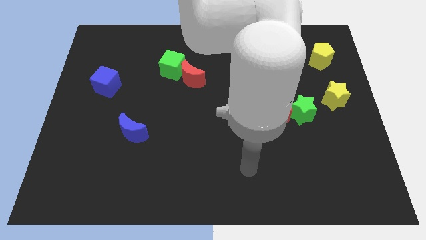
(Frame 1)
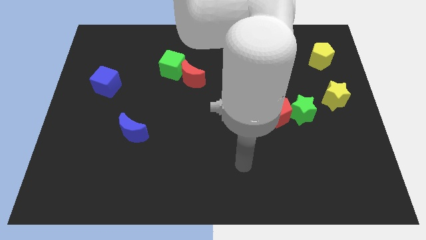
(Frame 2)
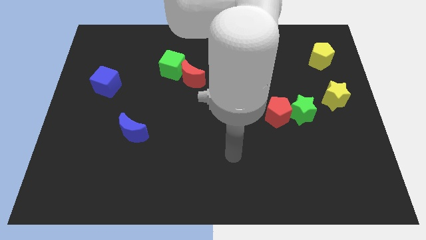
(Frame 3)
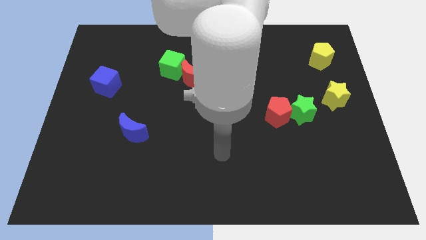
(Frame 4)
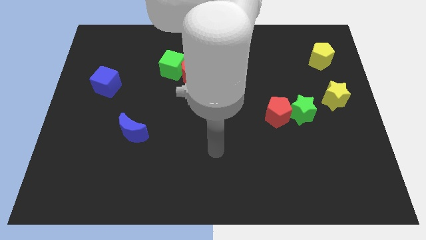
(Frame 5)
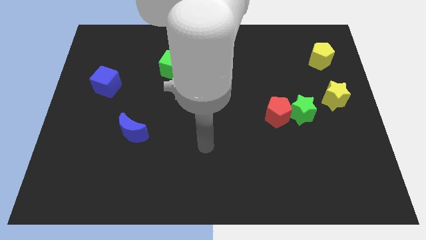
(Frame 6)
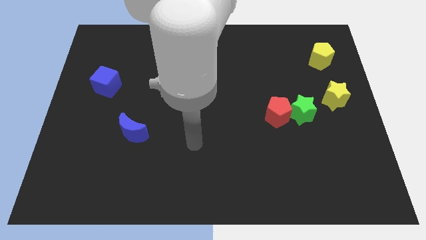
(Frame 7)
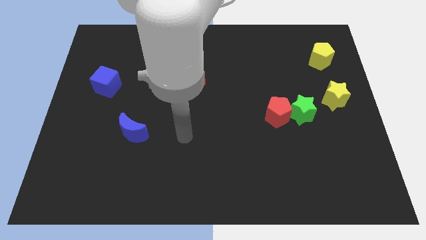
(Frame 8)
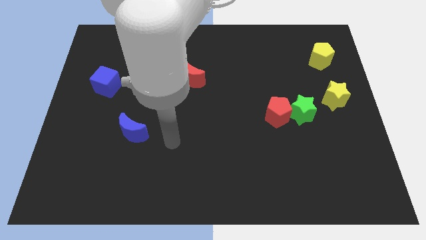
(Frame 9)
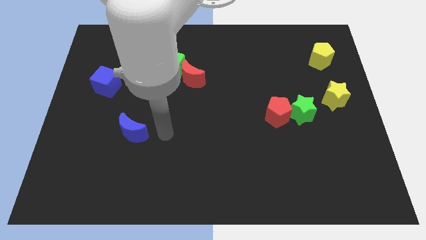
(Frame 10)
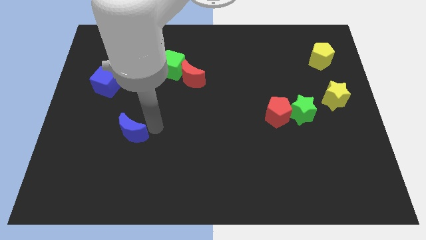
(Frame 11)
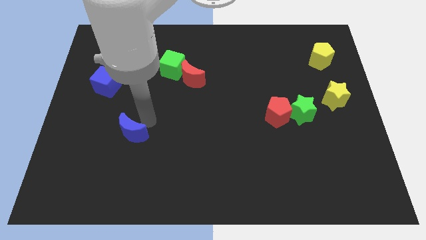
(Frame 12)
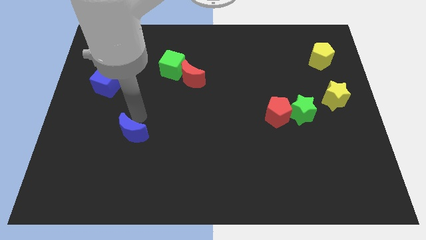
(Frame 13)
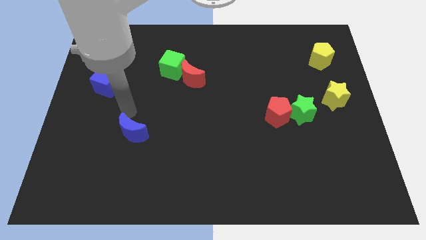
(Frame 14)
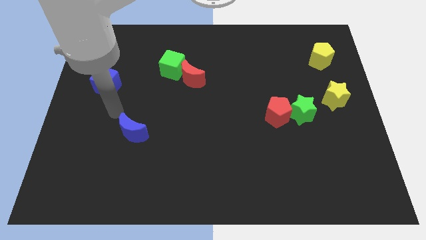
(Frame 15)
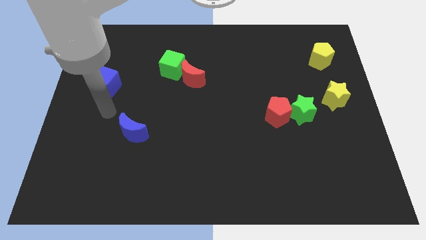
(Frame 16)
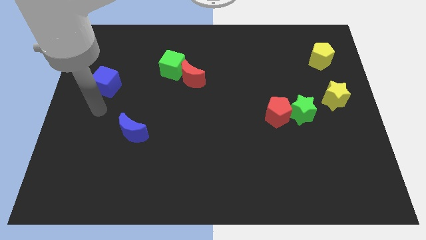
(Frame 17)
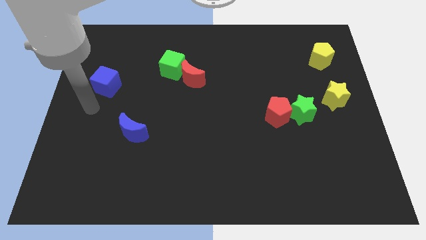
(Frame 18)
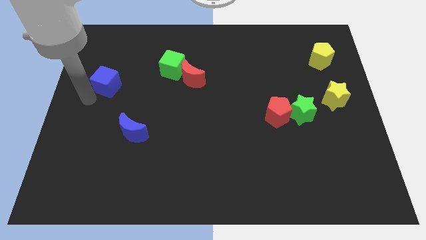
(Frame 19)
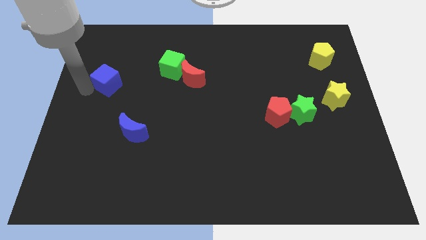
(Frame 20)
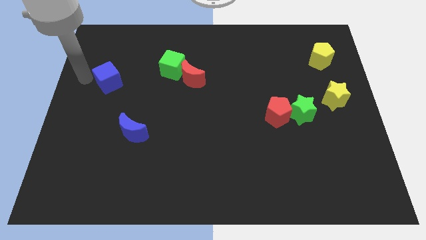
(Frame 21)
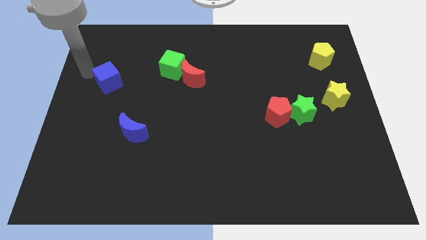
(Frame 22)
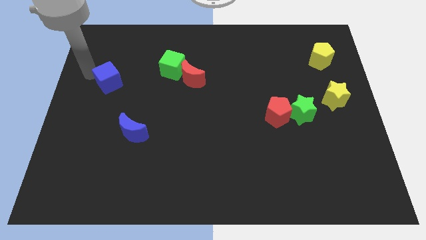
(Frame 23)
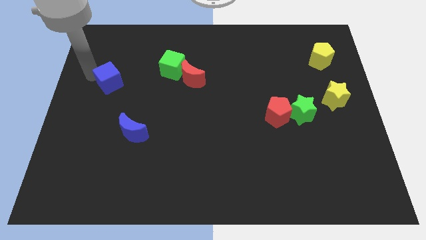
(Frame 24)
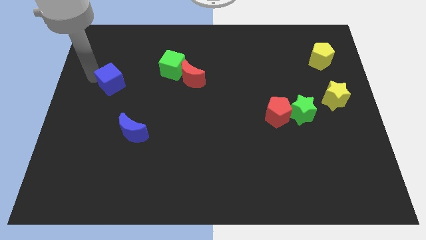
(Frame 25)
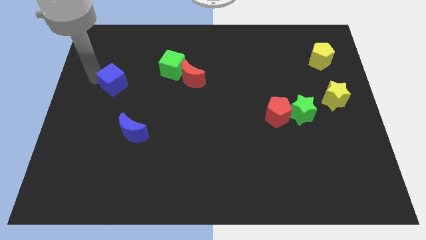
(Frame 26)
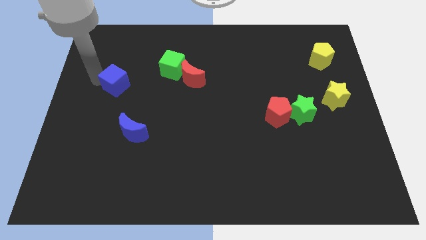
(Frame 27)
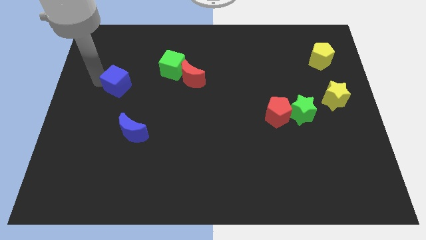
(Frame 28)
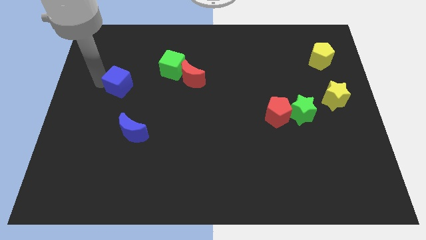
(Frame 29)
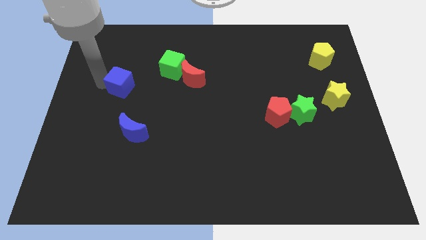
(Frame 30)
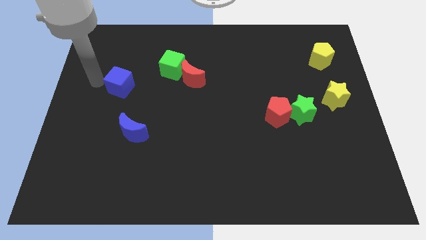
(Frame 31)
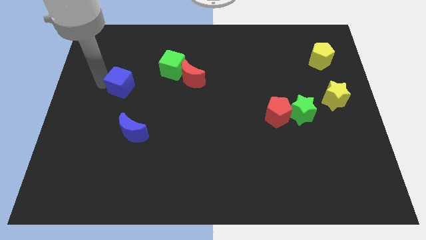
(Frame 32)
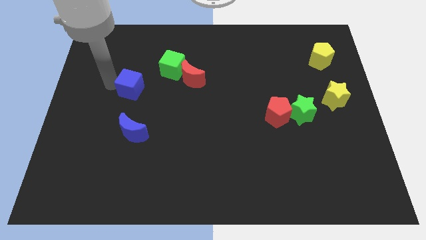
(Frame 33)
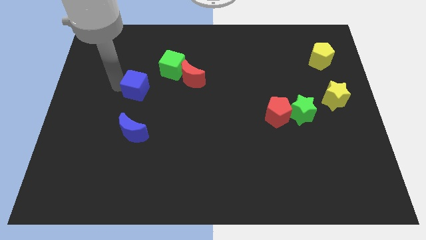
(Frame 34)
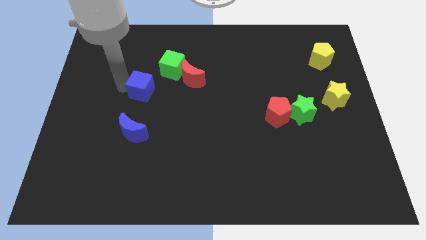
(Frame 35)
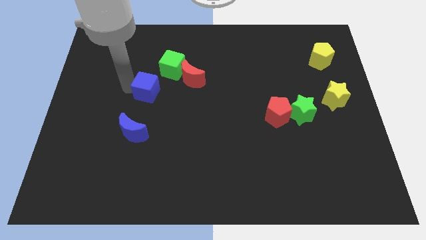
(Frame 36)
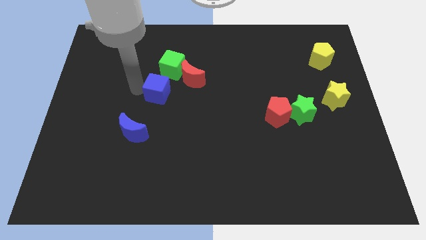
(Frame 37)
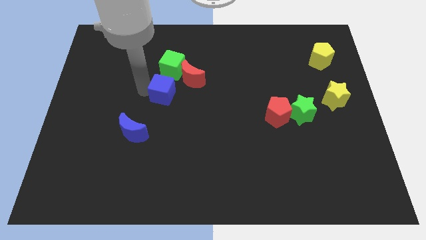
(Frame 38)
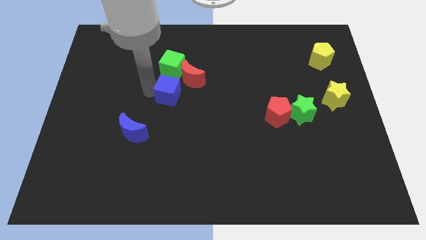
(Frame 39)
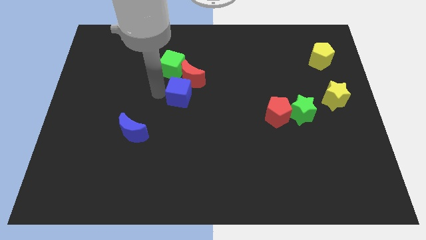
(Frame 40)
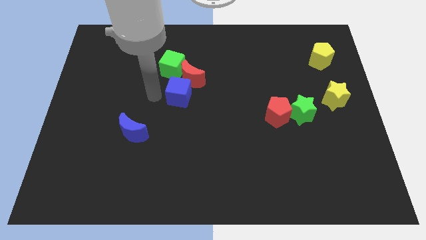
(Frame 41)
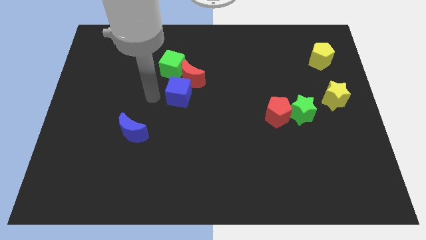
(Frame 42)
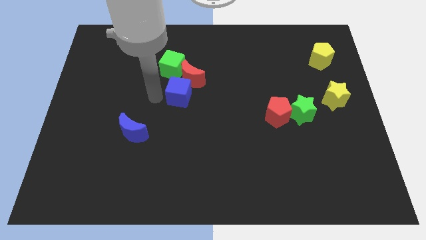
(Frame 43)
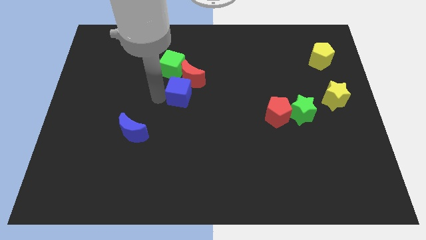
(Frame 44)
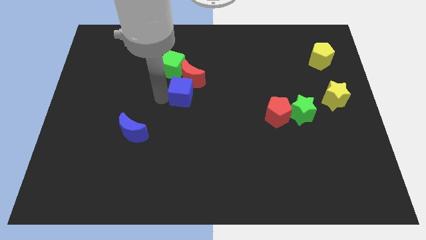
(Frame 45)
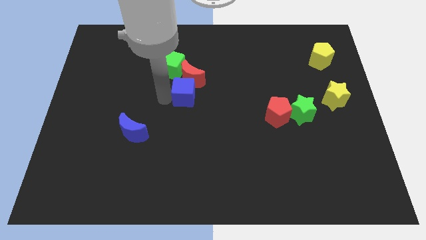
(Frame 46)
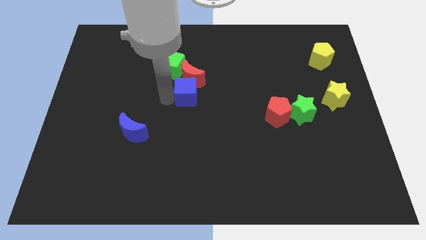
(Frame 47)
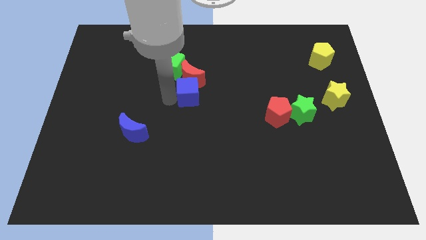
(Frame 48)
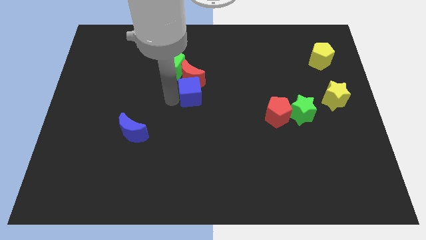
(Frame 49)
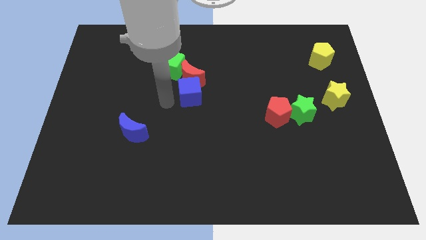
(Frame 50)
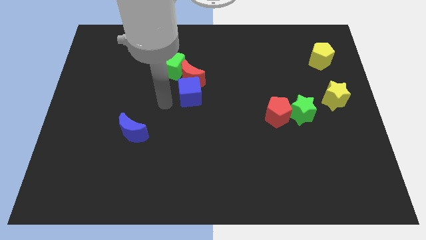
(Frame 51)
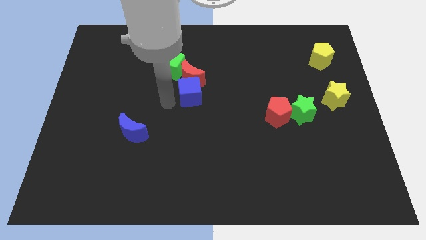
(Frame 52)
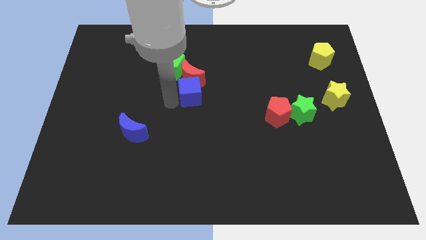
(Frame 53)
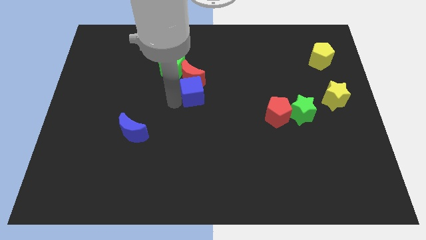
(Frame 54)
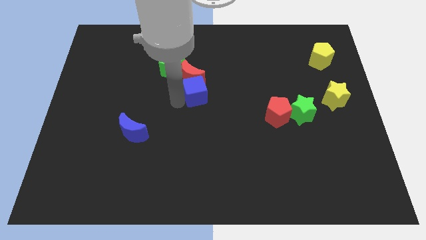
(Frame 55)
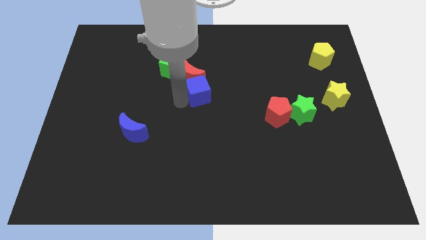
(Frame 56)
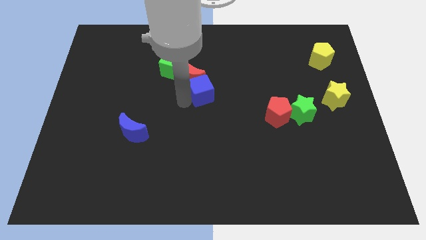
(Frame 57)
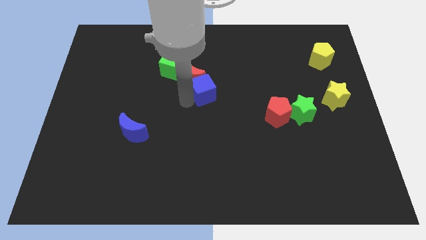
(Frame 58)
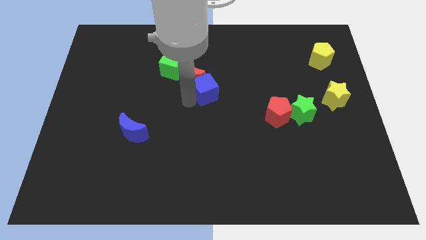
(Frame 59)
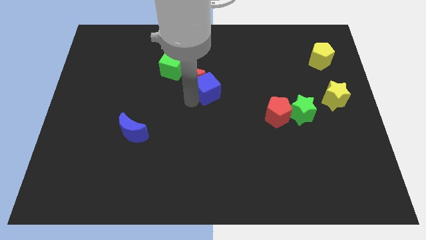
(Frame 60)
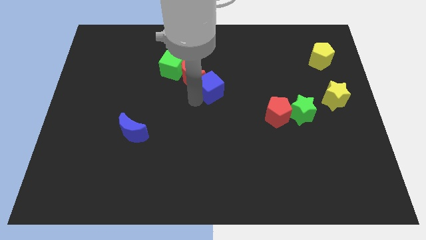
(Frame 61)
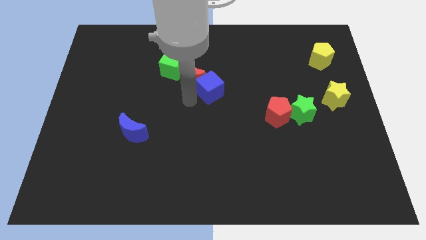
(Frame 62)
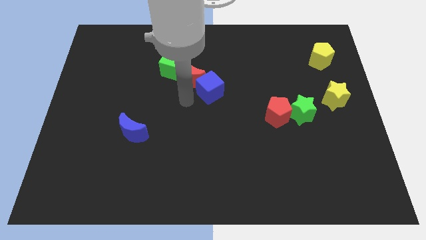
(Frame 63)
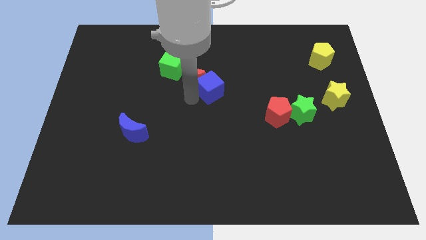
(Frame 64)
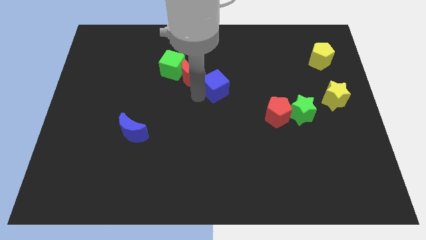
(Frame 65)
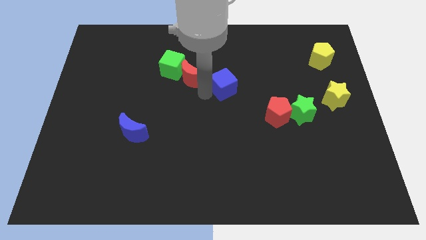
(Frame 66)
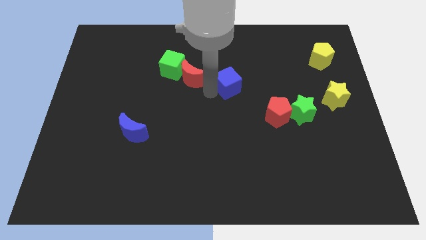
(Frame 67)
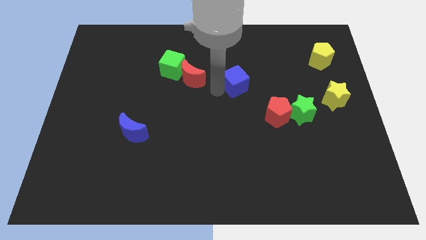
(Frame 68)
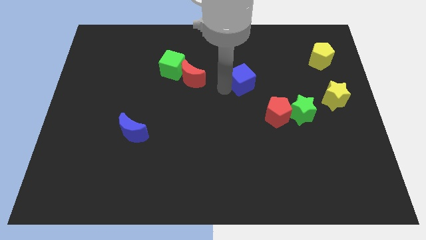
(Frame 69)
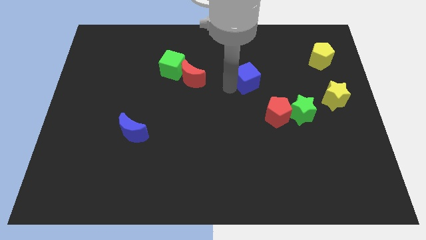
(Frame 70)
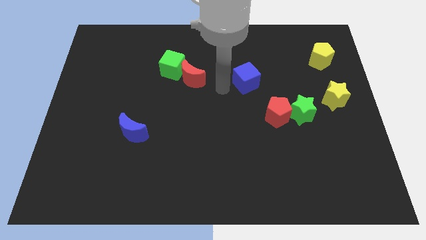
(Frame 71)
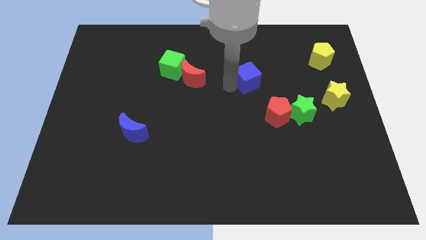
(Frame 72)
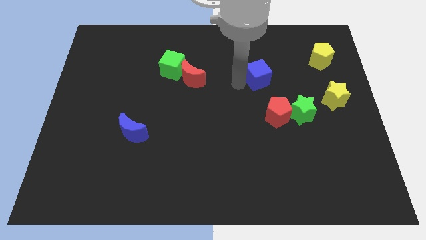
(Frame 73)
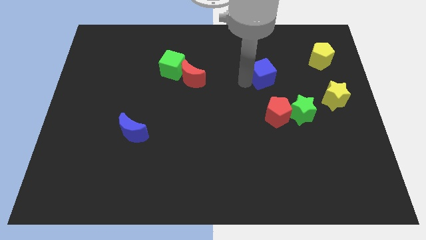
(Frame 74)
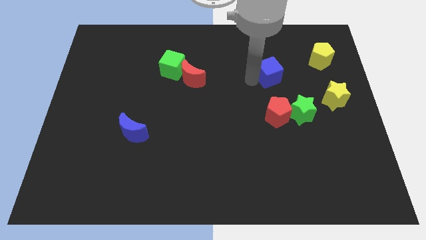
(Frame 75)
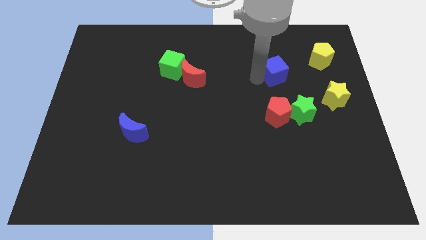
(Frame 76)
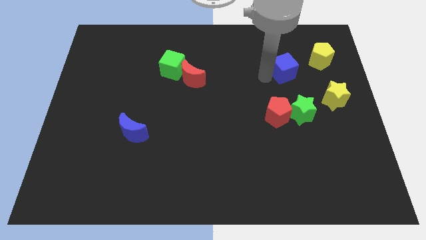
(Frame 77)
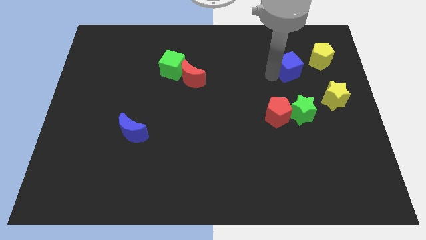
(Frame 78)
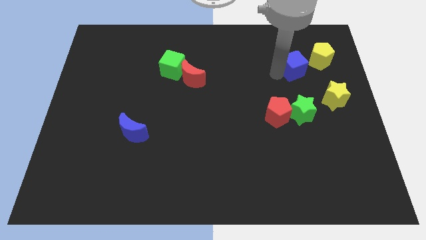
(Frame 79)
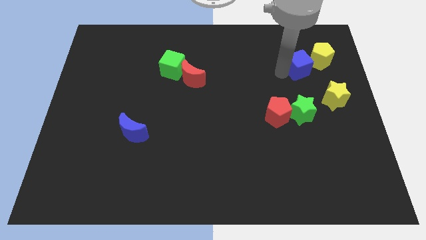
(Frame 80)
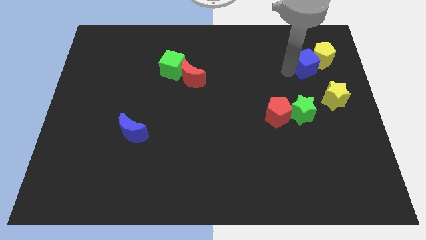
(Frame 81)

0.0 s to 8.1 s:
move the blue cube towards the yellow pentagon
